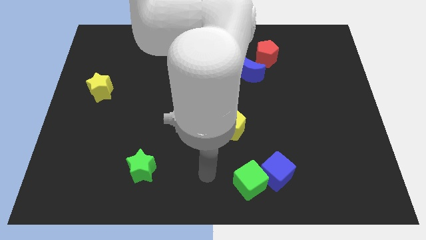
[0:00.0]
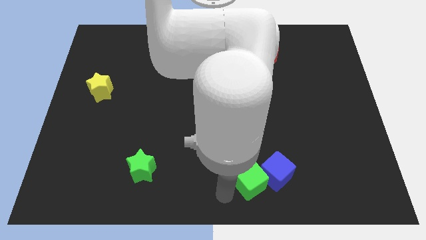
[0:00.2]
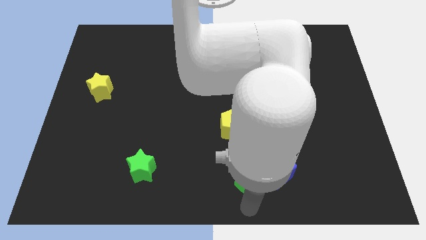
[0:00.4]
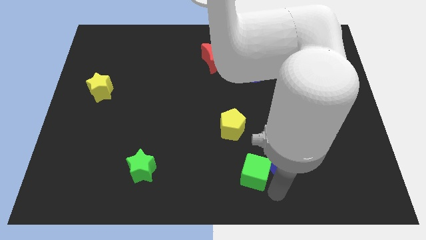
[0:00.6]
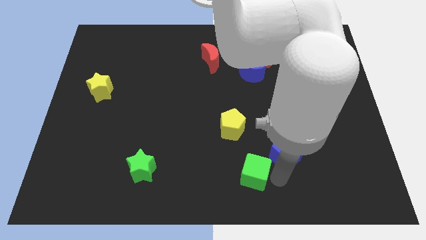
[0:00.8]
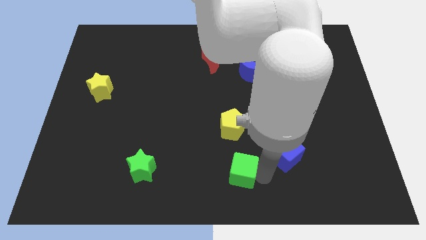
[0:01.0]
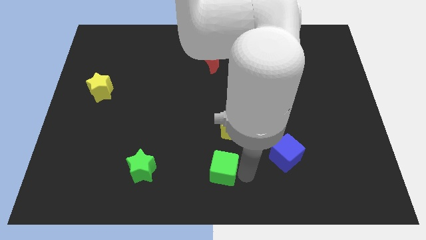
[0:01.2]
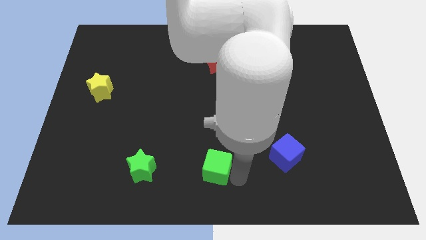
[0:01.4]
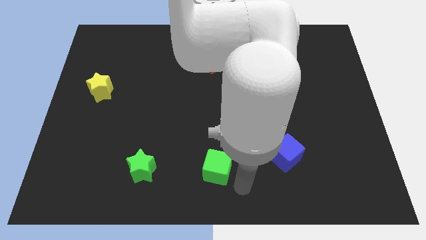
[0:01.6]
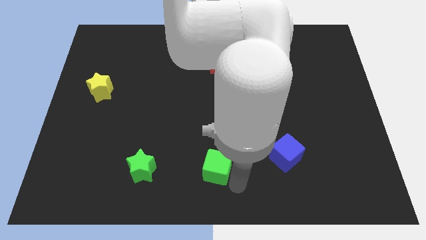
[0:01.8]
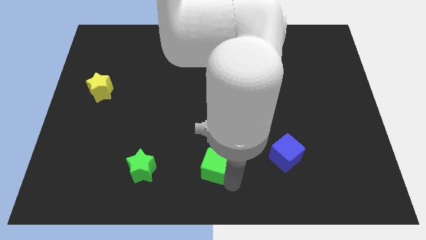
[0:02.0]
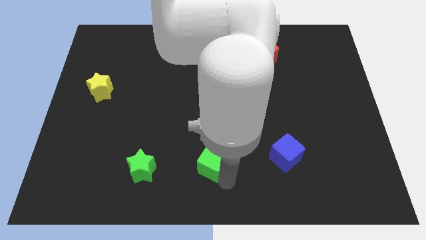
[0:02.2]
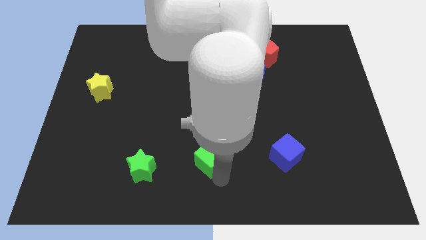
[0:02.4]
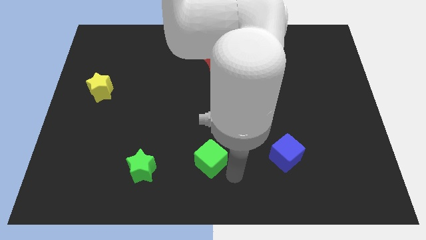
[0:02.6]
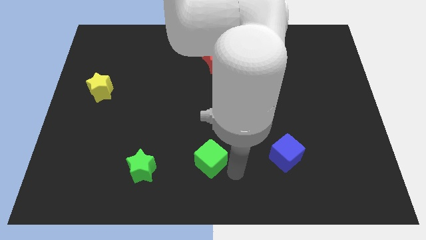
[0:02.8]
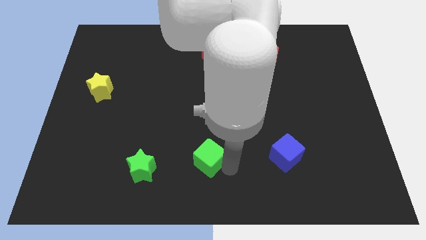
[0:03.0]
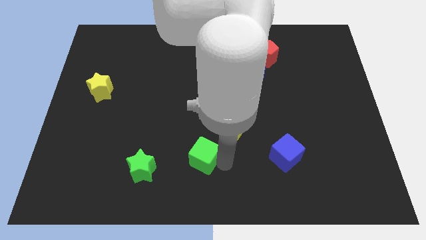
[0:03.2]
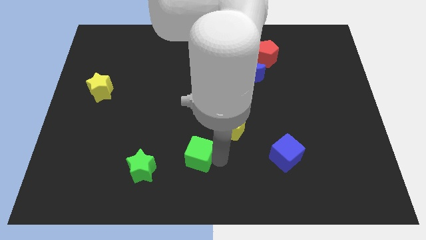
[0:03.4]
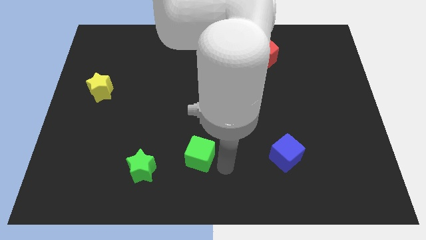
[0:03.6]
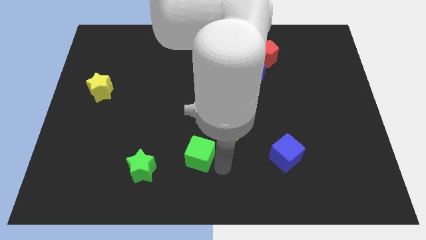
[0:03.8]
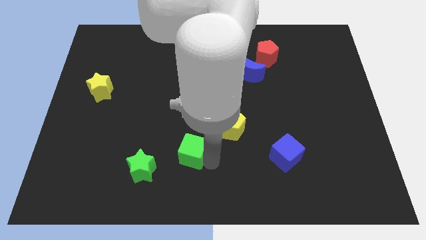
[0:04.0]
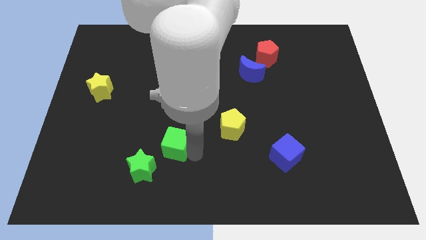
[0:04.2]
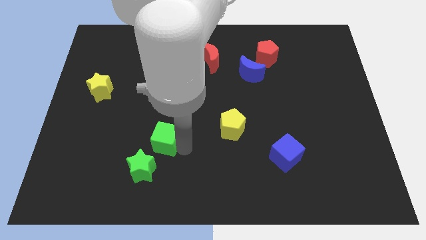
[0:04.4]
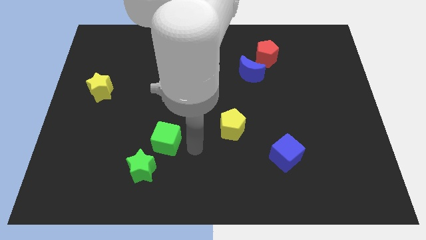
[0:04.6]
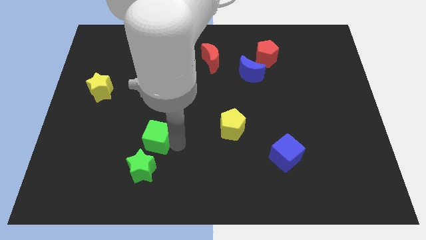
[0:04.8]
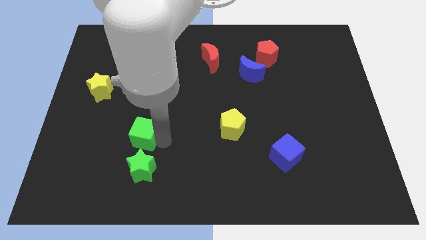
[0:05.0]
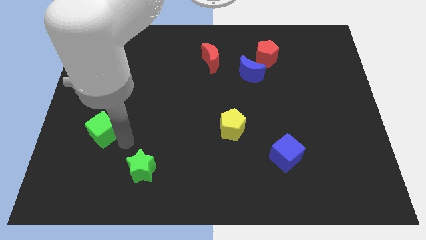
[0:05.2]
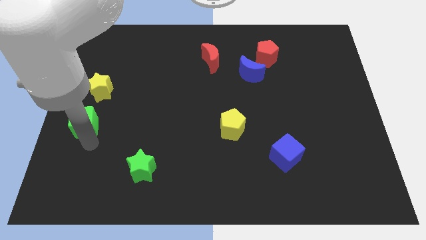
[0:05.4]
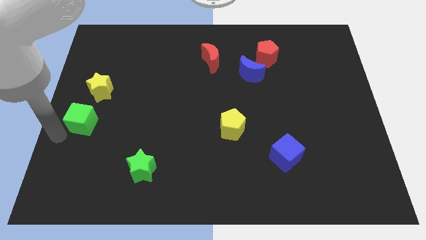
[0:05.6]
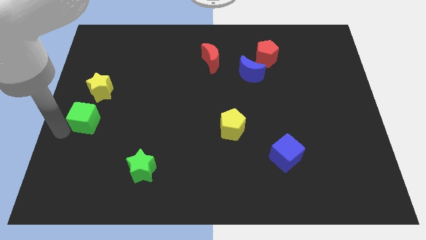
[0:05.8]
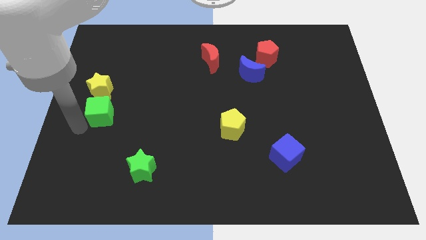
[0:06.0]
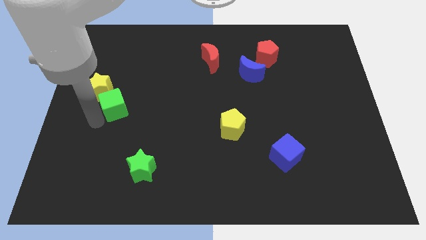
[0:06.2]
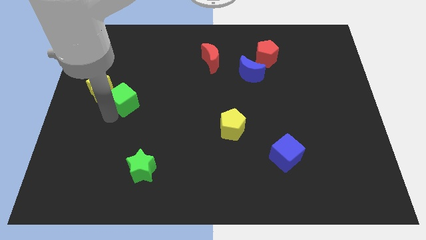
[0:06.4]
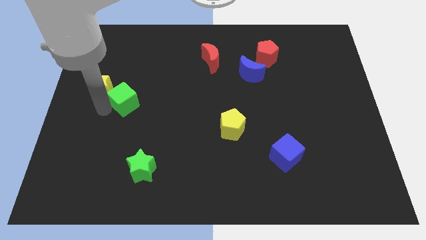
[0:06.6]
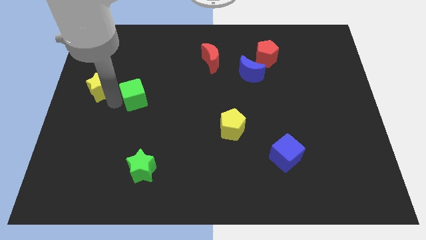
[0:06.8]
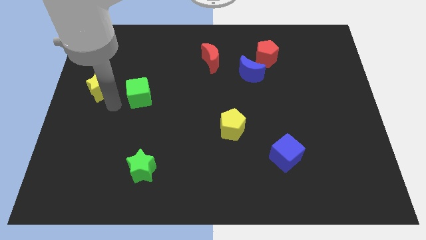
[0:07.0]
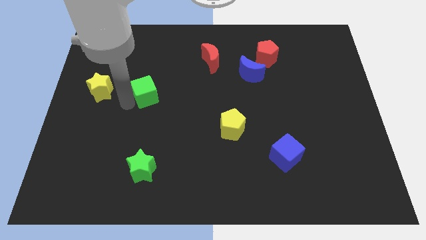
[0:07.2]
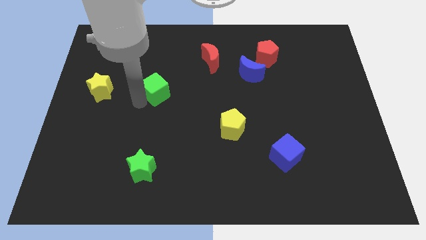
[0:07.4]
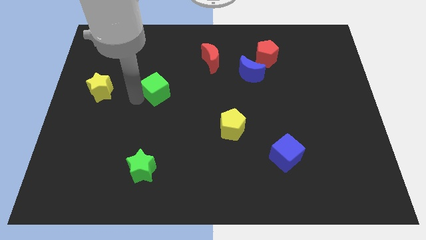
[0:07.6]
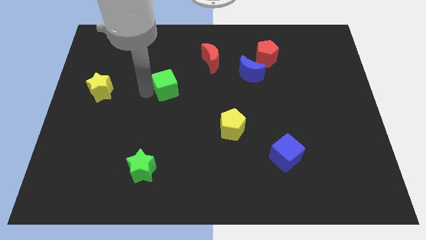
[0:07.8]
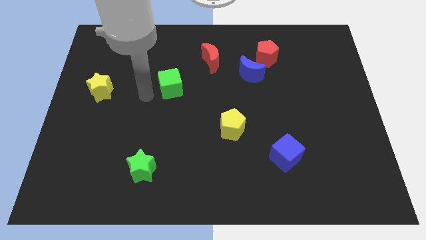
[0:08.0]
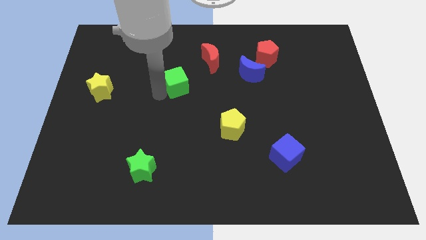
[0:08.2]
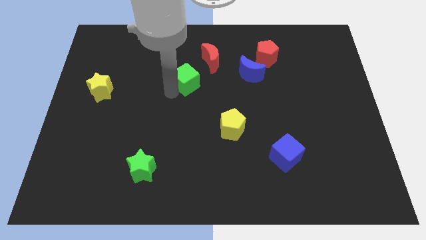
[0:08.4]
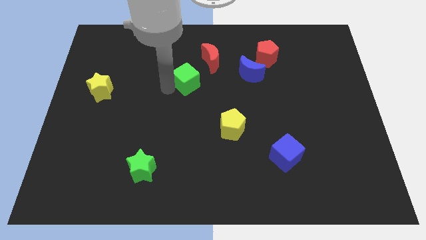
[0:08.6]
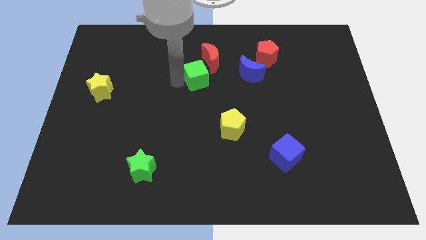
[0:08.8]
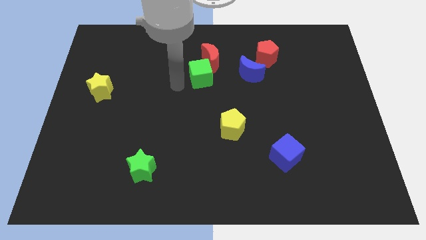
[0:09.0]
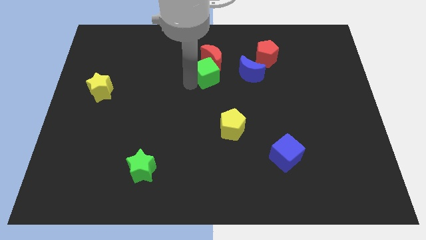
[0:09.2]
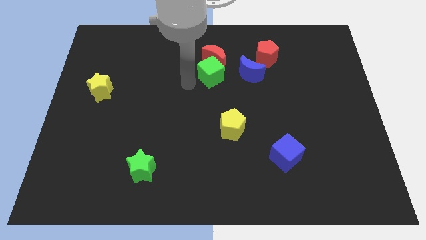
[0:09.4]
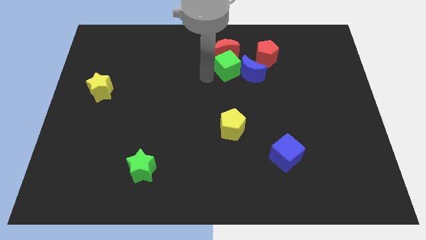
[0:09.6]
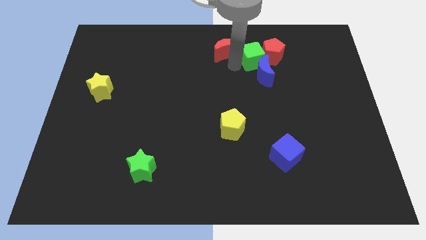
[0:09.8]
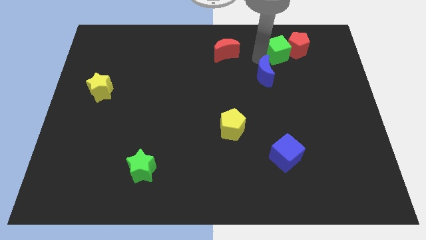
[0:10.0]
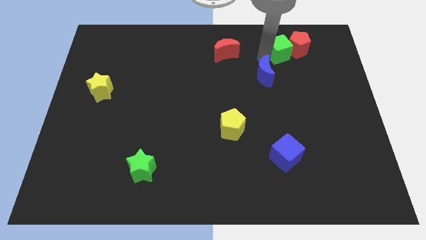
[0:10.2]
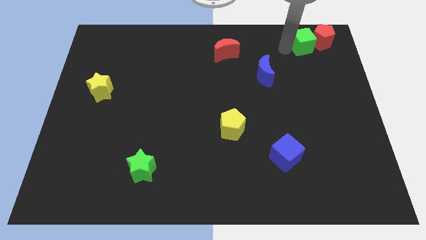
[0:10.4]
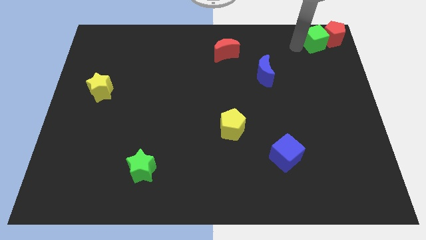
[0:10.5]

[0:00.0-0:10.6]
move the green cube to the upper right corner

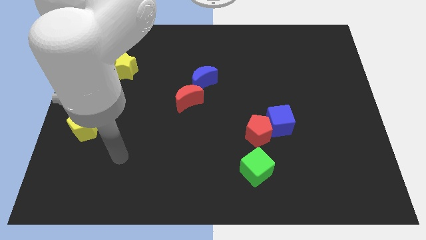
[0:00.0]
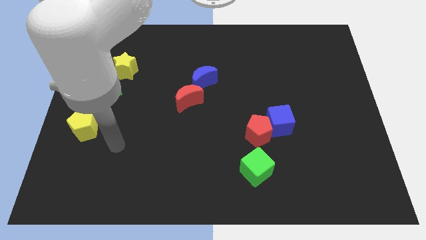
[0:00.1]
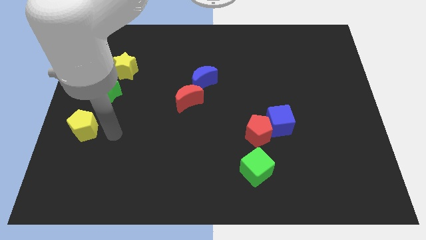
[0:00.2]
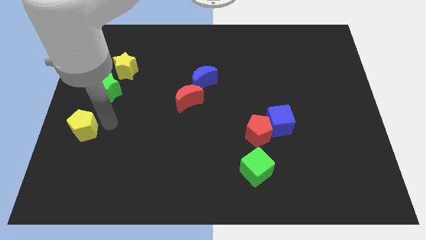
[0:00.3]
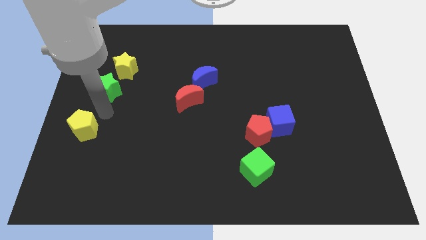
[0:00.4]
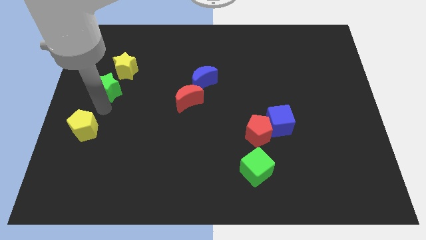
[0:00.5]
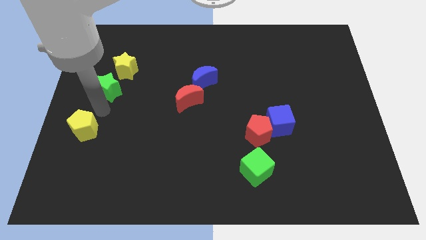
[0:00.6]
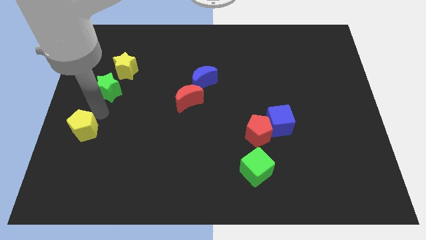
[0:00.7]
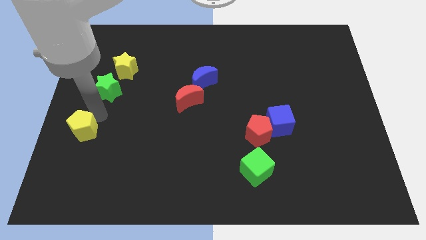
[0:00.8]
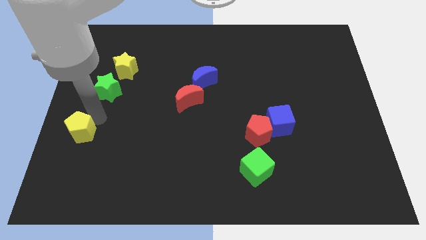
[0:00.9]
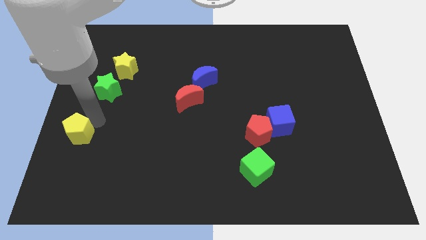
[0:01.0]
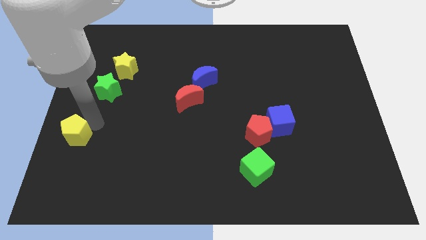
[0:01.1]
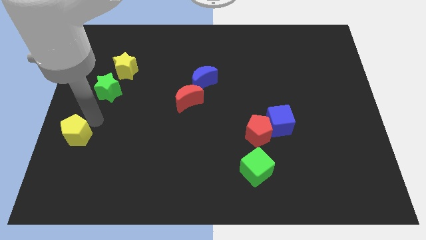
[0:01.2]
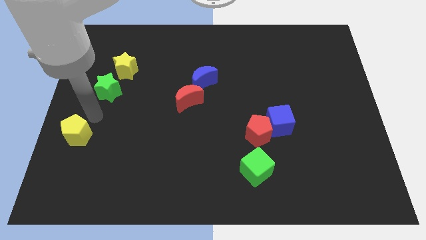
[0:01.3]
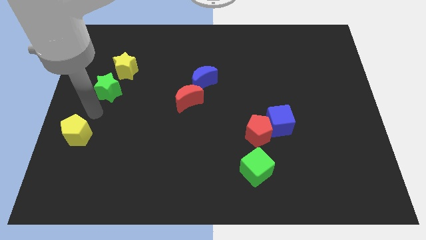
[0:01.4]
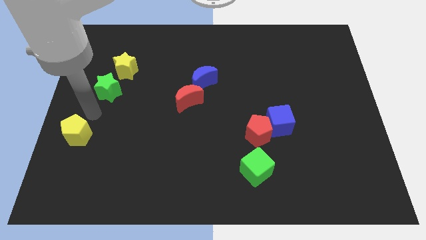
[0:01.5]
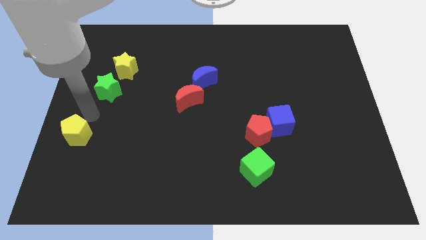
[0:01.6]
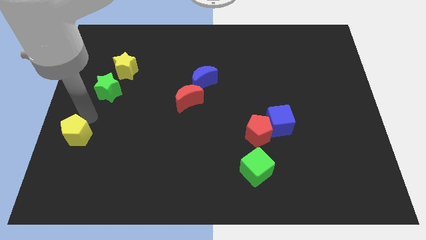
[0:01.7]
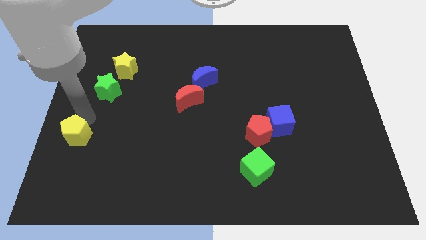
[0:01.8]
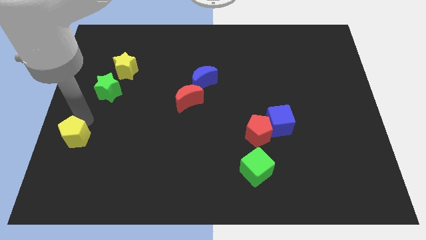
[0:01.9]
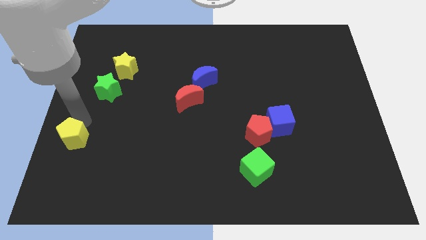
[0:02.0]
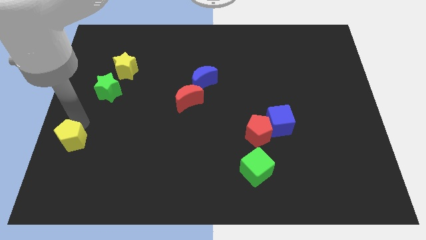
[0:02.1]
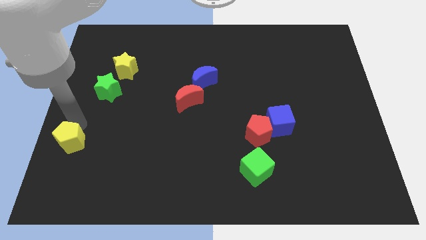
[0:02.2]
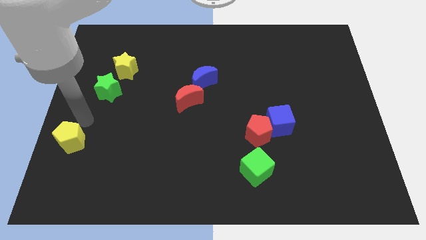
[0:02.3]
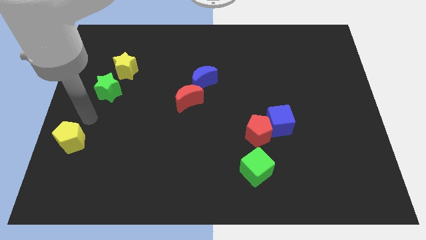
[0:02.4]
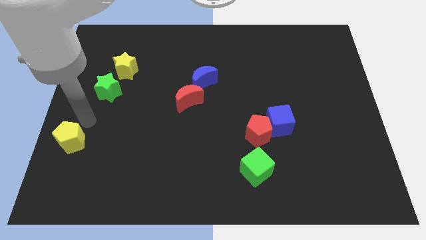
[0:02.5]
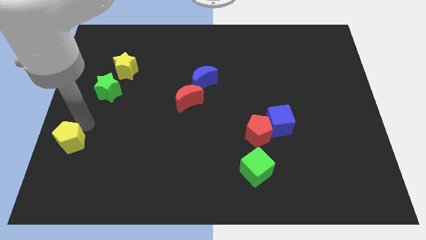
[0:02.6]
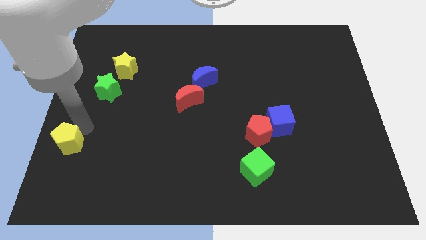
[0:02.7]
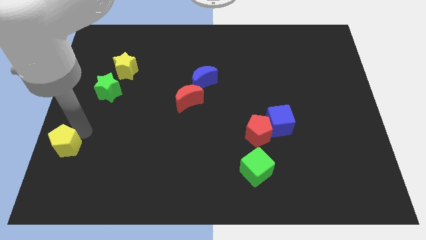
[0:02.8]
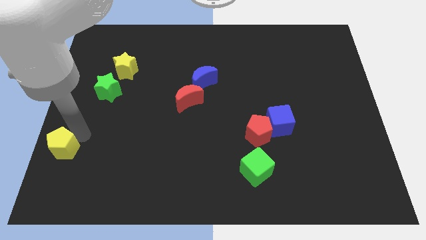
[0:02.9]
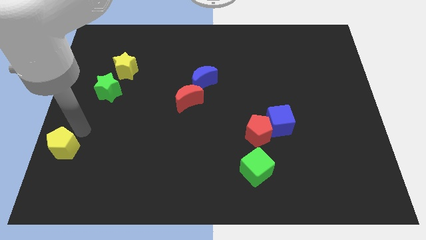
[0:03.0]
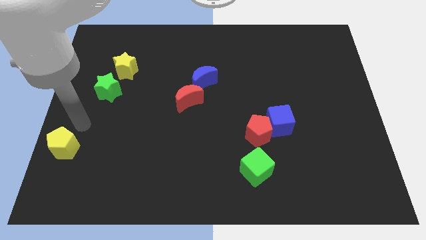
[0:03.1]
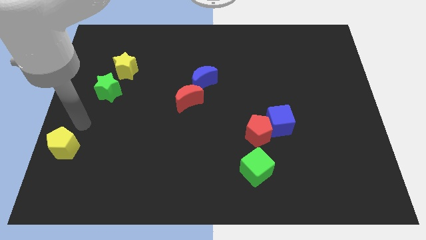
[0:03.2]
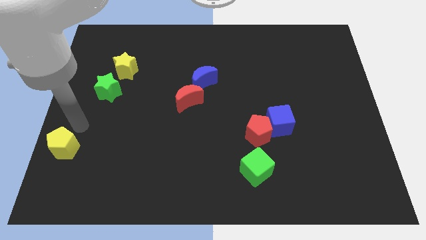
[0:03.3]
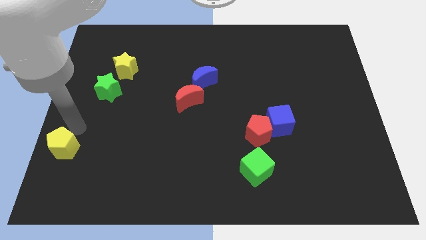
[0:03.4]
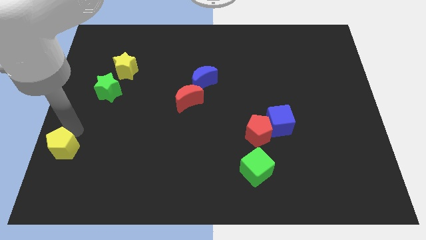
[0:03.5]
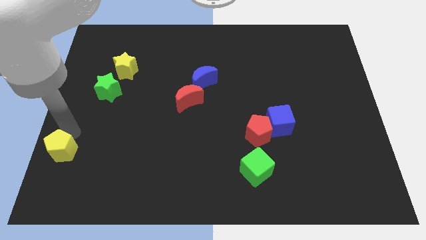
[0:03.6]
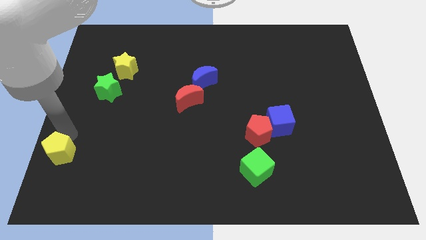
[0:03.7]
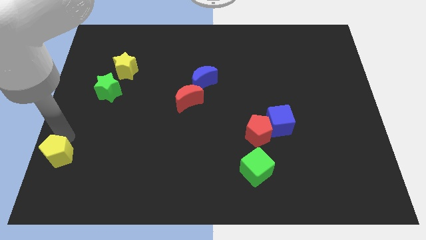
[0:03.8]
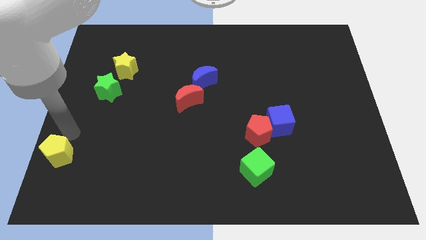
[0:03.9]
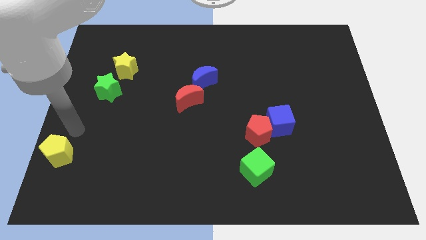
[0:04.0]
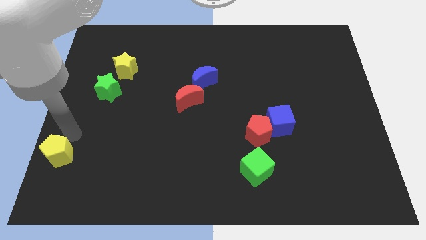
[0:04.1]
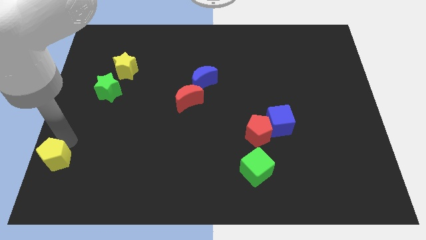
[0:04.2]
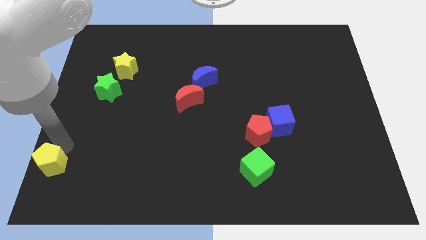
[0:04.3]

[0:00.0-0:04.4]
move the yellow pentagon to the bottom left
